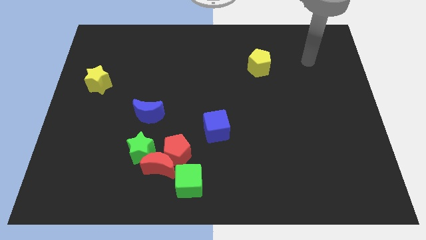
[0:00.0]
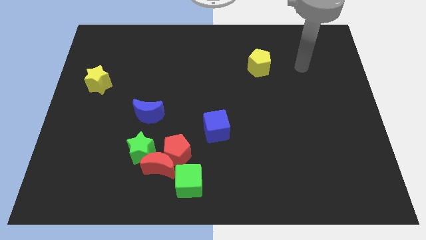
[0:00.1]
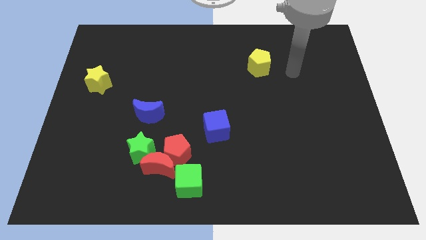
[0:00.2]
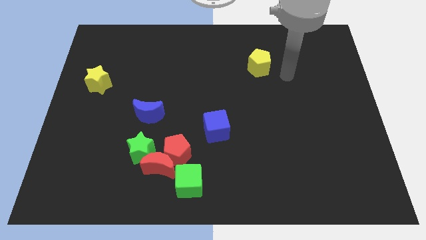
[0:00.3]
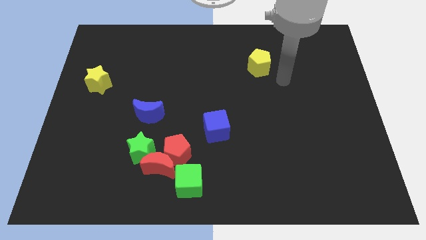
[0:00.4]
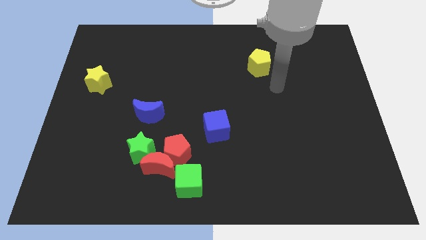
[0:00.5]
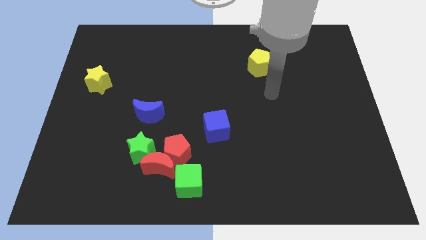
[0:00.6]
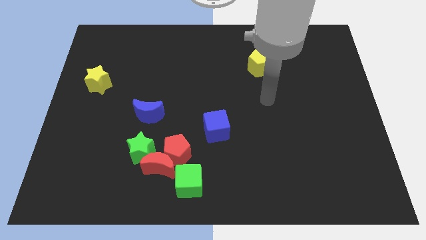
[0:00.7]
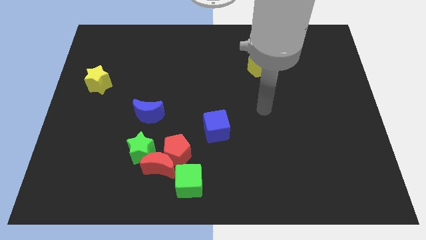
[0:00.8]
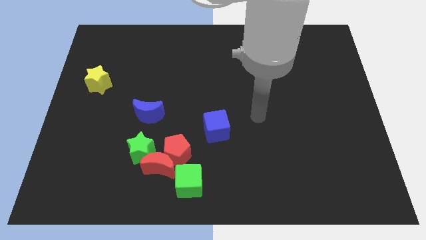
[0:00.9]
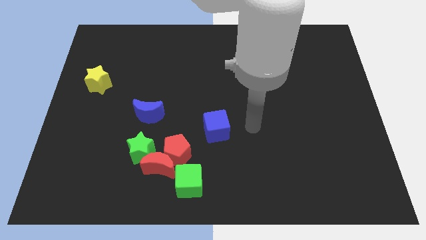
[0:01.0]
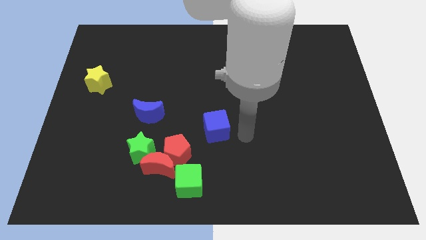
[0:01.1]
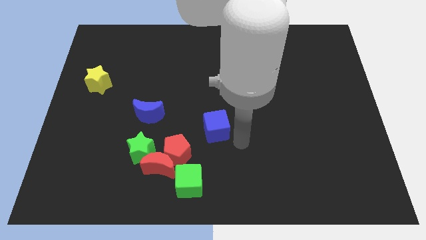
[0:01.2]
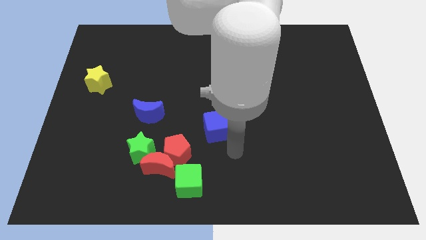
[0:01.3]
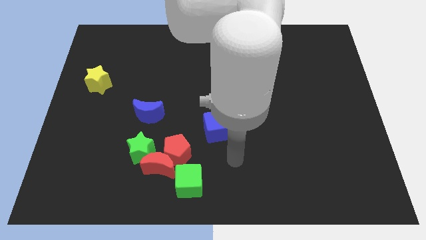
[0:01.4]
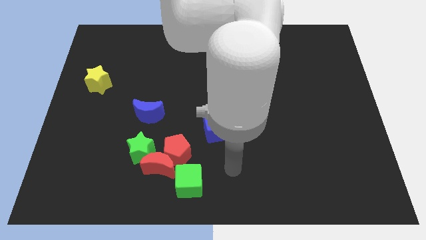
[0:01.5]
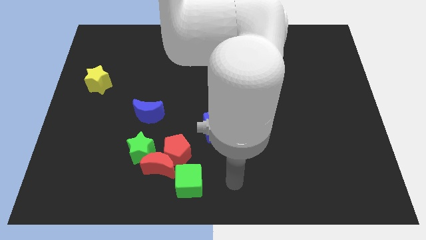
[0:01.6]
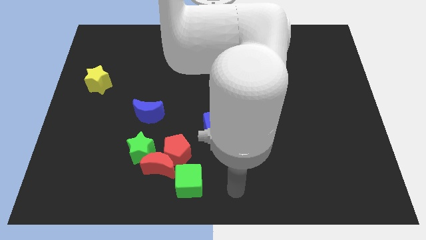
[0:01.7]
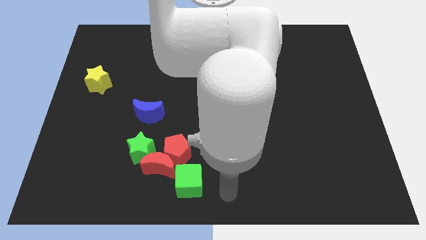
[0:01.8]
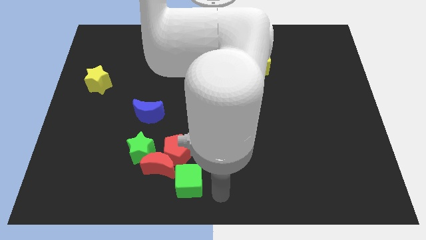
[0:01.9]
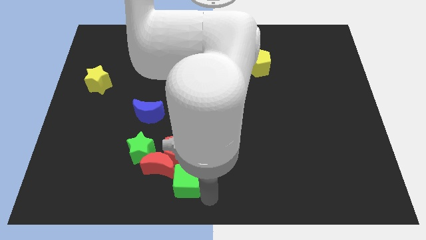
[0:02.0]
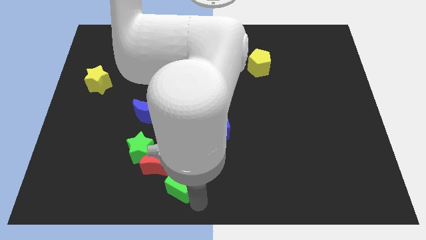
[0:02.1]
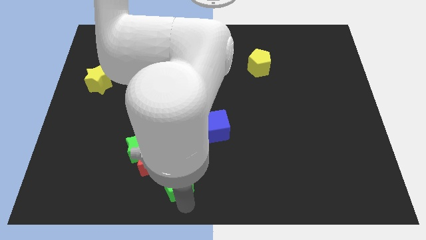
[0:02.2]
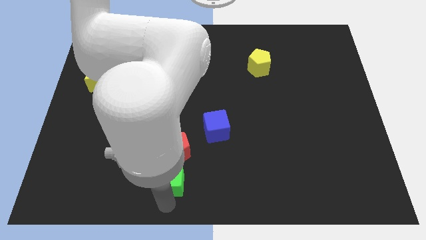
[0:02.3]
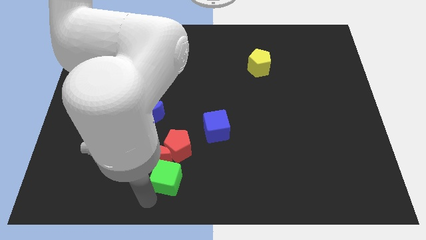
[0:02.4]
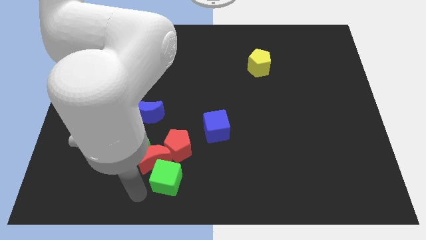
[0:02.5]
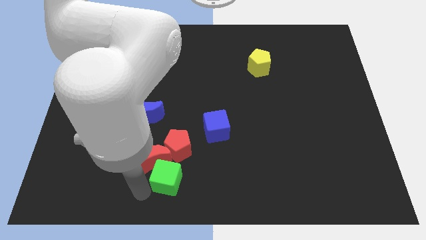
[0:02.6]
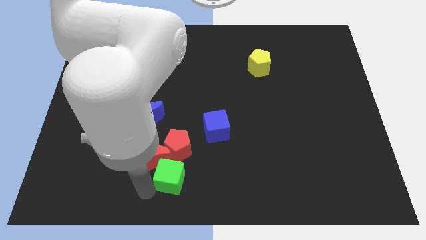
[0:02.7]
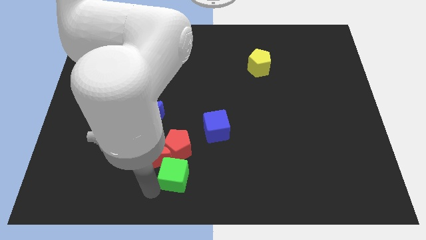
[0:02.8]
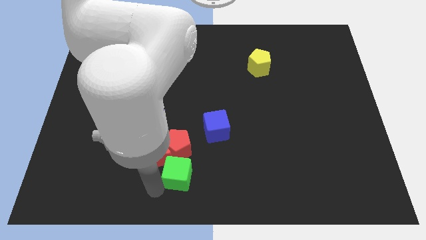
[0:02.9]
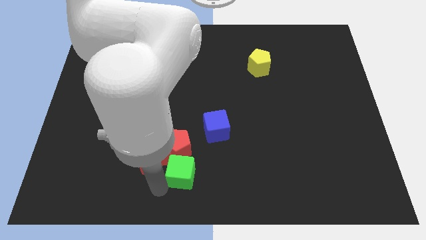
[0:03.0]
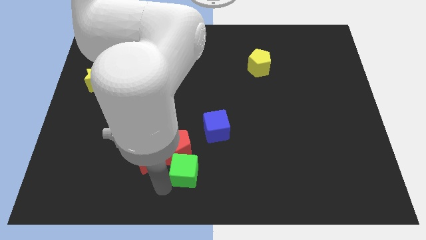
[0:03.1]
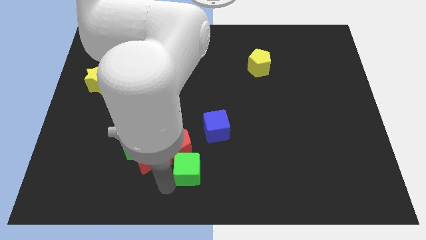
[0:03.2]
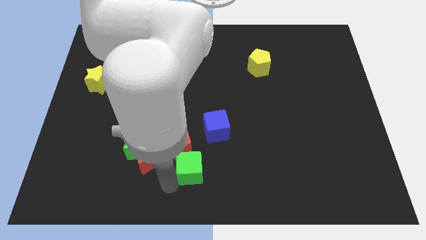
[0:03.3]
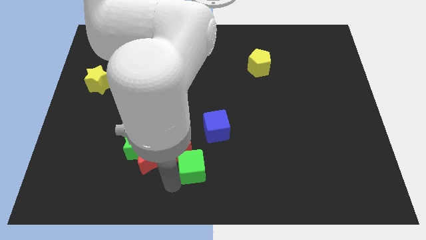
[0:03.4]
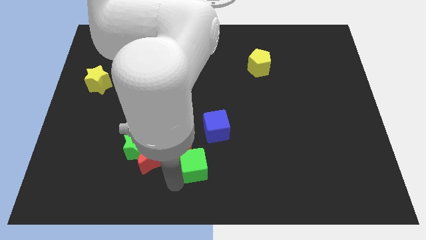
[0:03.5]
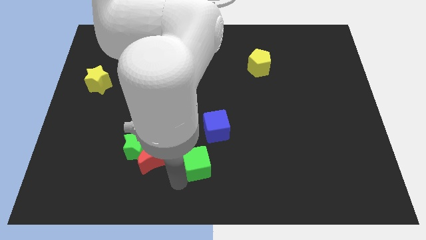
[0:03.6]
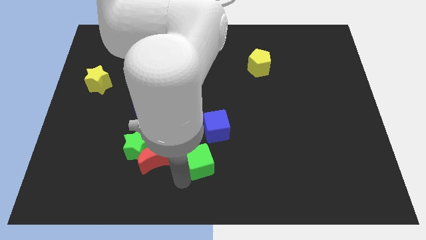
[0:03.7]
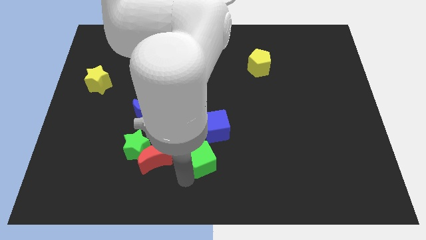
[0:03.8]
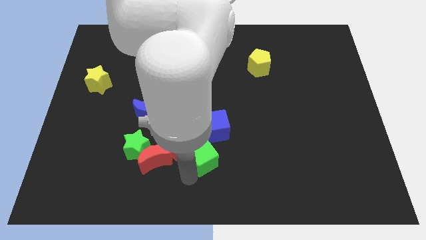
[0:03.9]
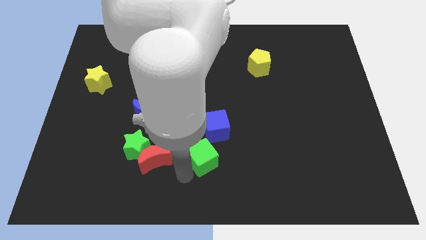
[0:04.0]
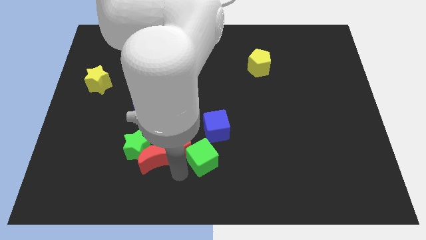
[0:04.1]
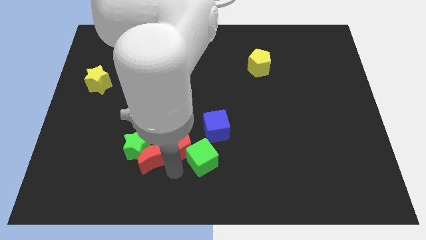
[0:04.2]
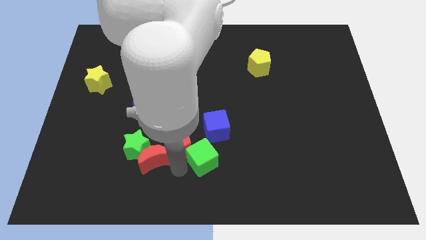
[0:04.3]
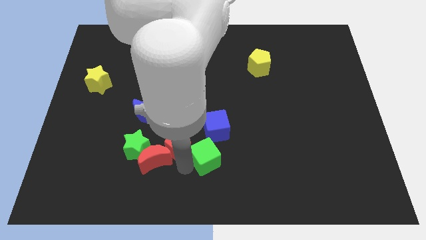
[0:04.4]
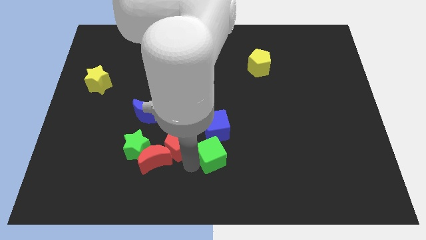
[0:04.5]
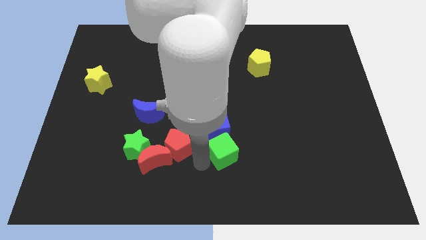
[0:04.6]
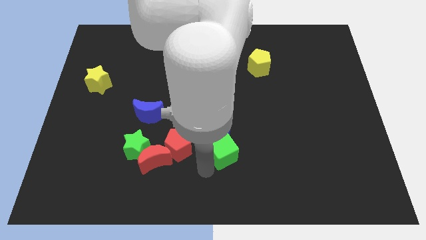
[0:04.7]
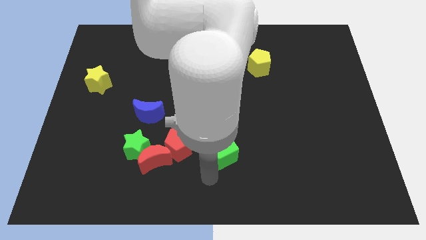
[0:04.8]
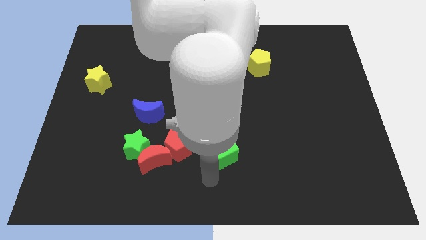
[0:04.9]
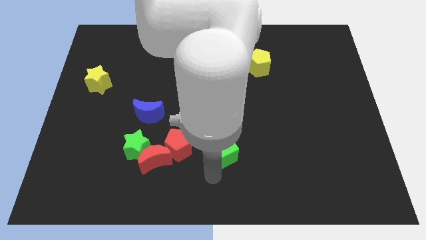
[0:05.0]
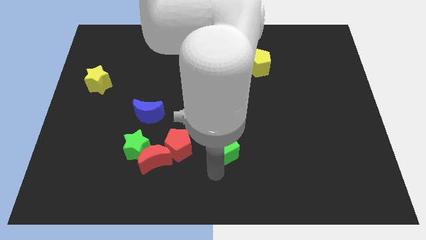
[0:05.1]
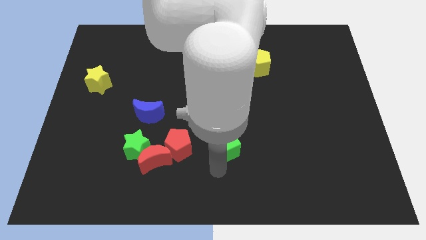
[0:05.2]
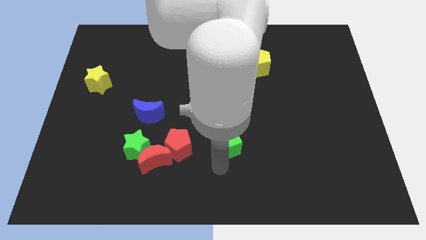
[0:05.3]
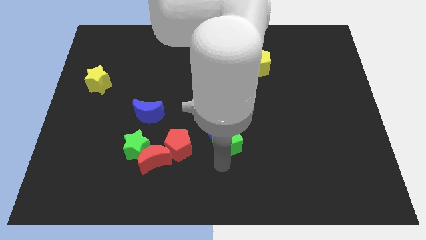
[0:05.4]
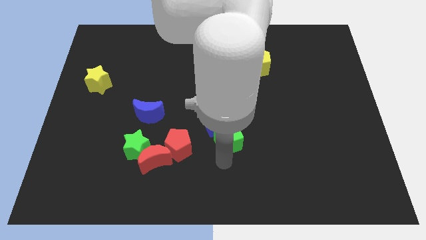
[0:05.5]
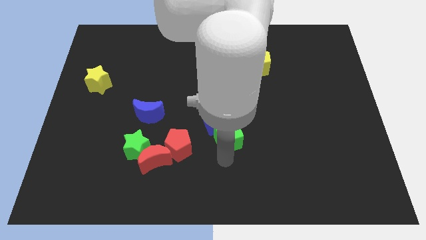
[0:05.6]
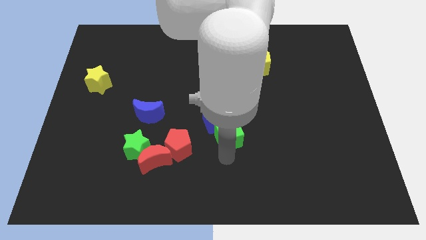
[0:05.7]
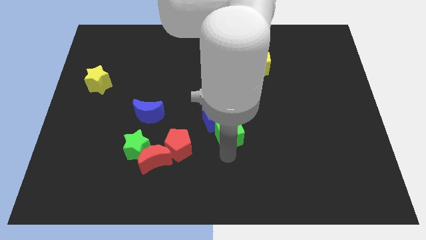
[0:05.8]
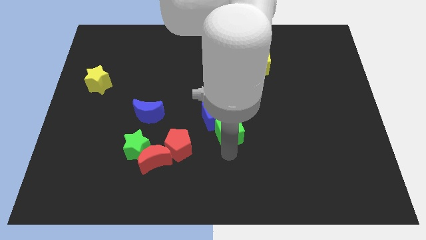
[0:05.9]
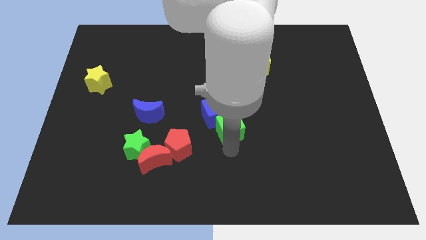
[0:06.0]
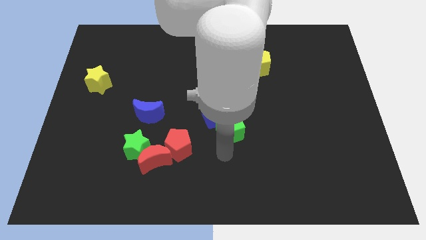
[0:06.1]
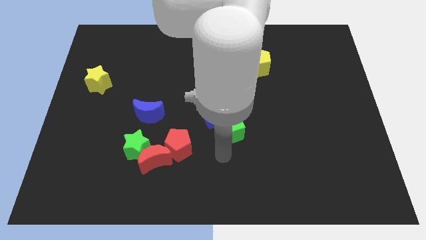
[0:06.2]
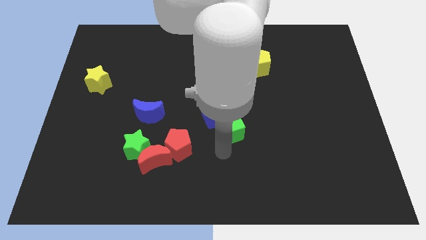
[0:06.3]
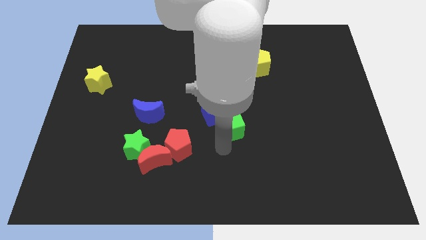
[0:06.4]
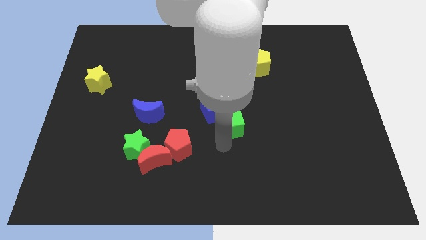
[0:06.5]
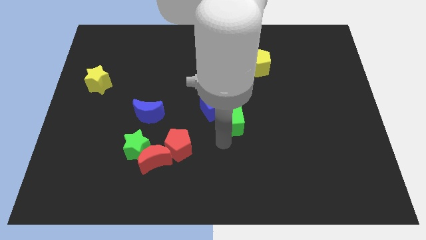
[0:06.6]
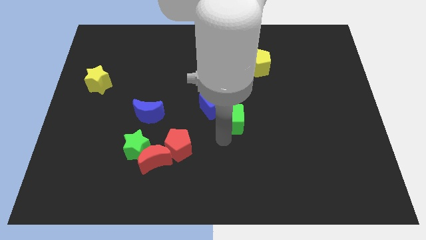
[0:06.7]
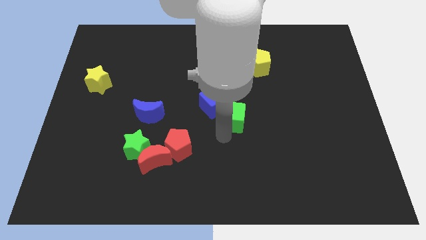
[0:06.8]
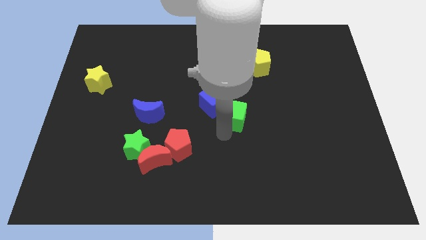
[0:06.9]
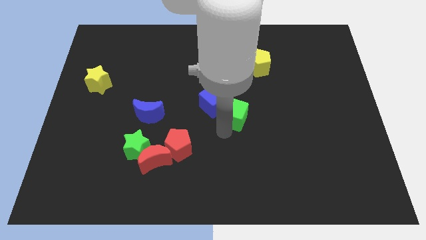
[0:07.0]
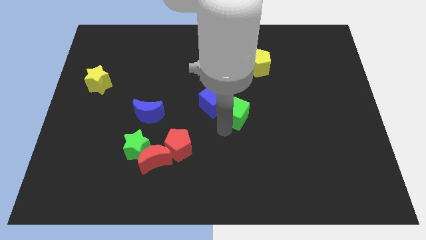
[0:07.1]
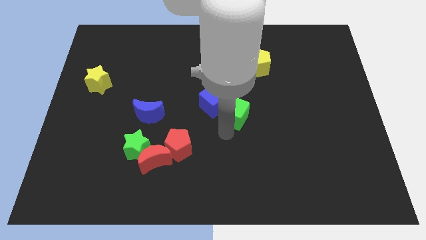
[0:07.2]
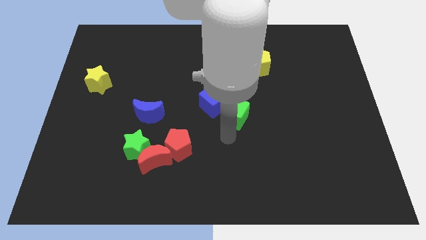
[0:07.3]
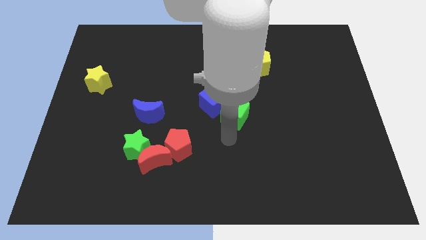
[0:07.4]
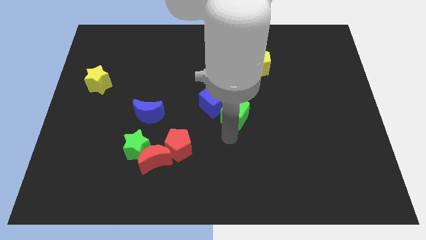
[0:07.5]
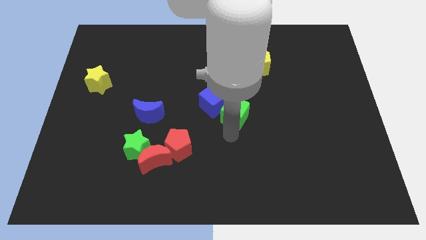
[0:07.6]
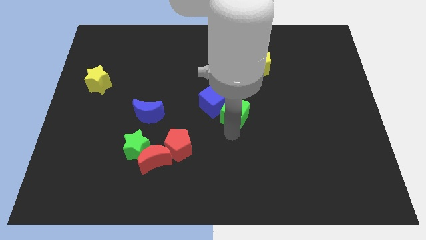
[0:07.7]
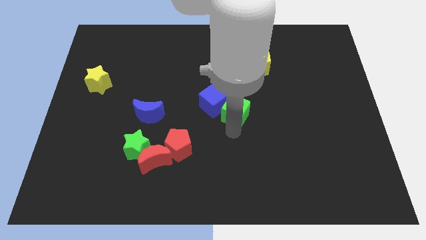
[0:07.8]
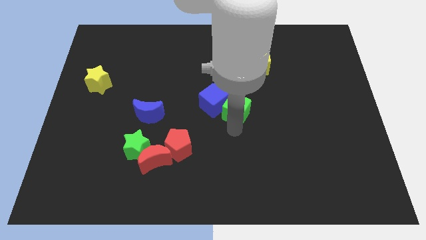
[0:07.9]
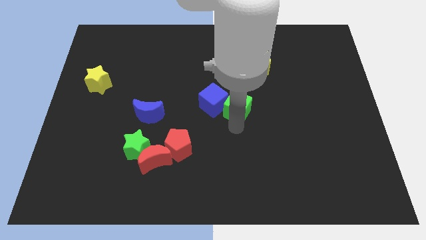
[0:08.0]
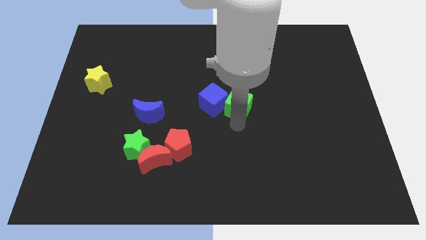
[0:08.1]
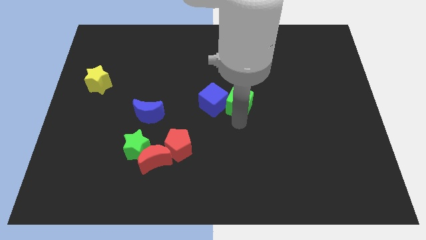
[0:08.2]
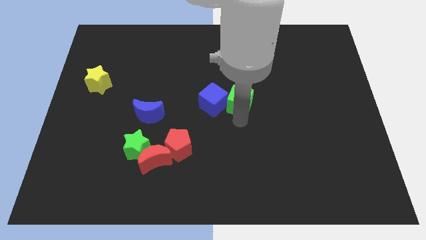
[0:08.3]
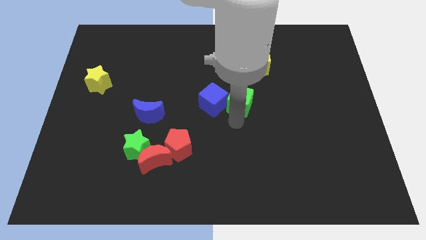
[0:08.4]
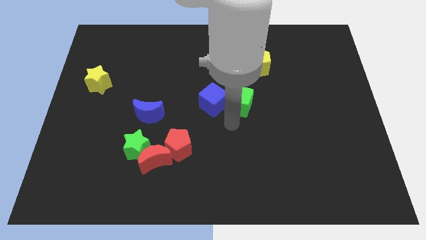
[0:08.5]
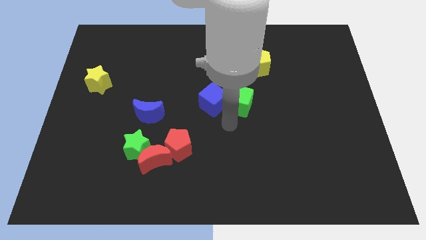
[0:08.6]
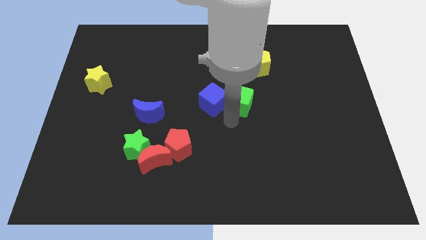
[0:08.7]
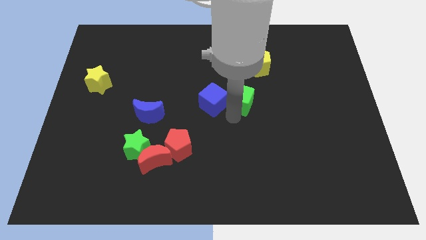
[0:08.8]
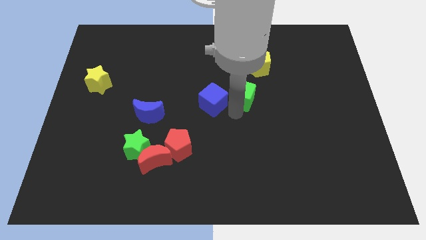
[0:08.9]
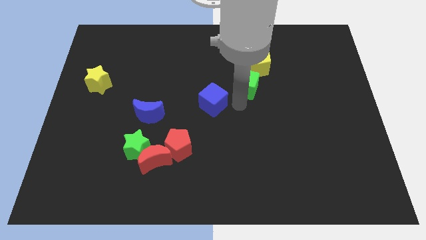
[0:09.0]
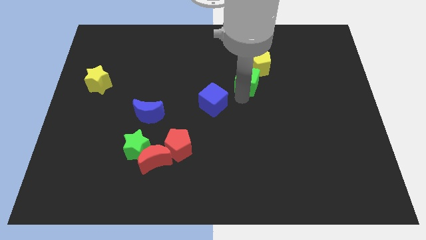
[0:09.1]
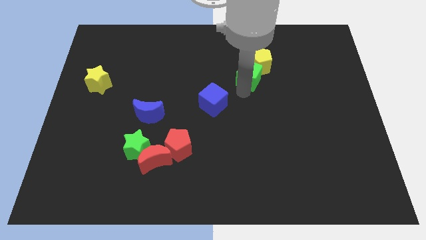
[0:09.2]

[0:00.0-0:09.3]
put the green cube to the yellow pentagon
